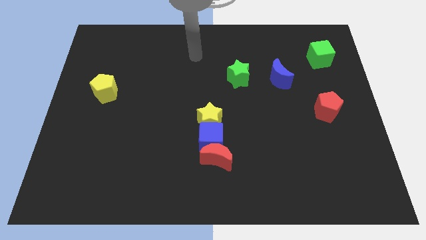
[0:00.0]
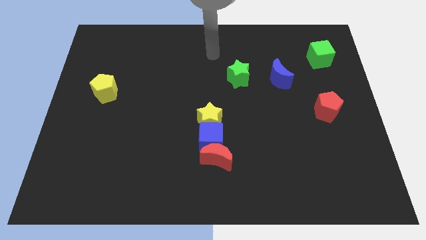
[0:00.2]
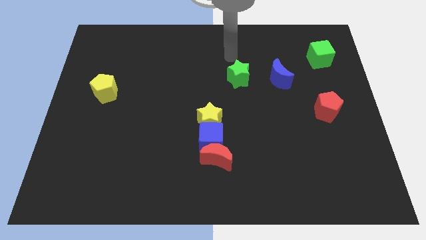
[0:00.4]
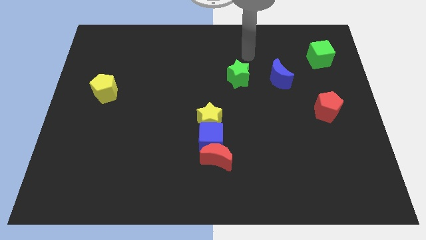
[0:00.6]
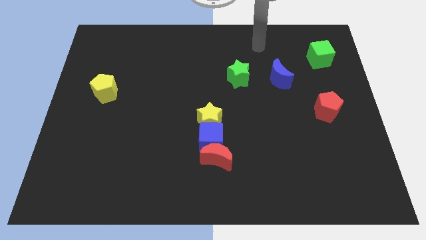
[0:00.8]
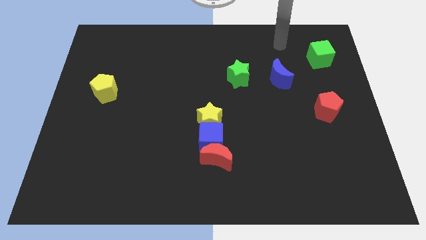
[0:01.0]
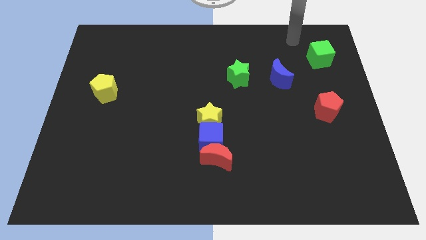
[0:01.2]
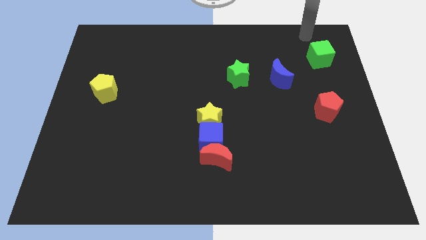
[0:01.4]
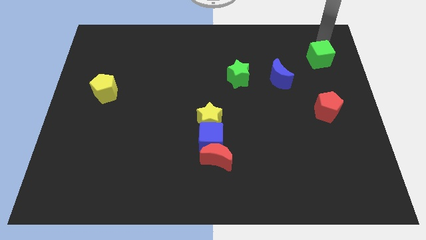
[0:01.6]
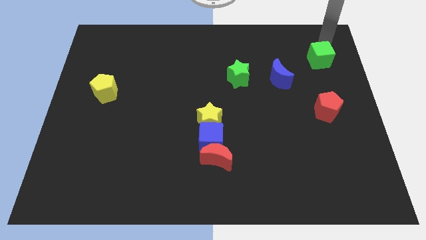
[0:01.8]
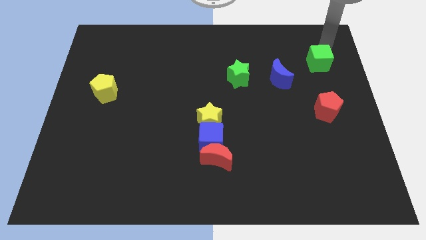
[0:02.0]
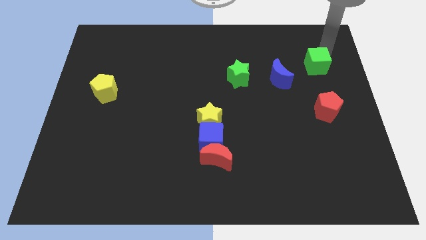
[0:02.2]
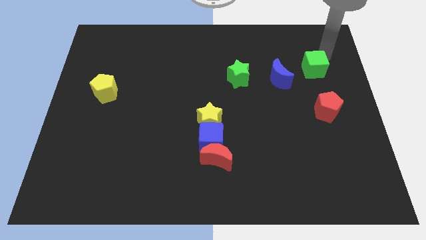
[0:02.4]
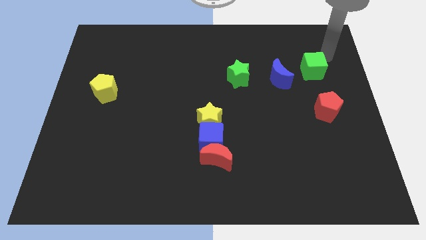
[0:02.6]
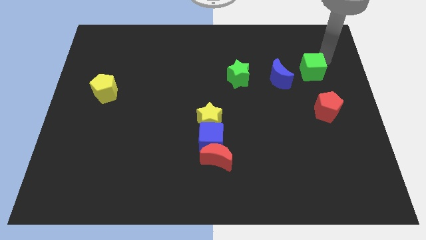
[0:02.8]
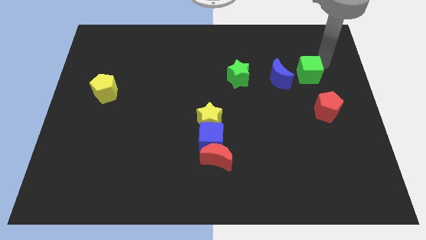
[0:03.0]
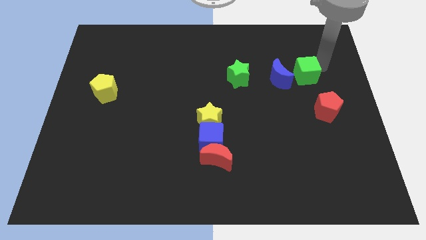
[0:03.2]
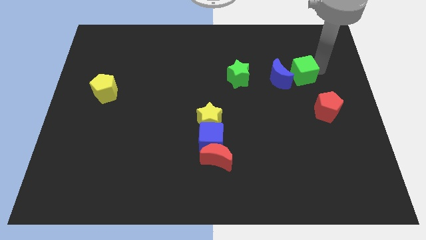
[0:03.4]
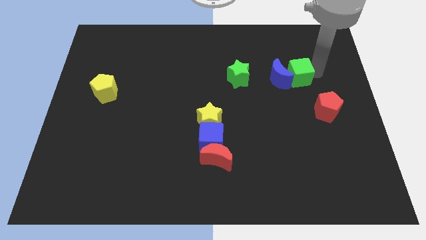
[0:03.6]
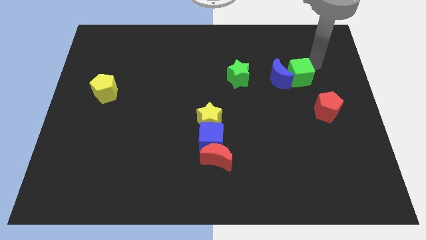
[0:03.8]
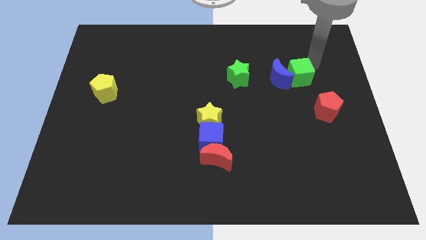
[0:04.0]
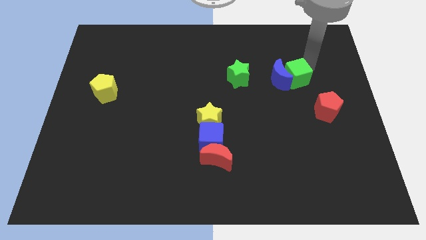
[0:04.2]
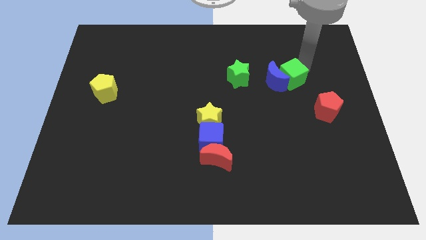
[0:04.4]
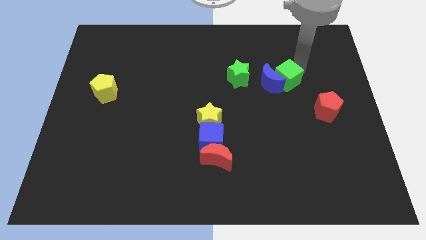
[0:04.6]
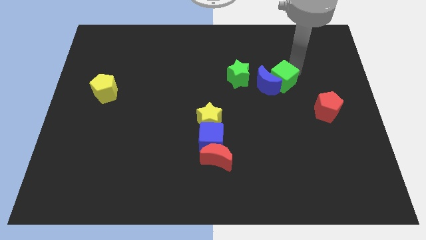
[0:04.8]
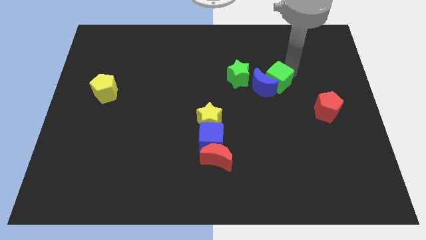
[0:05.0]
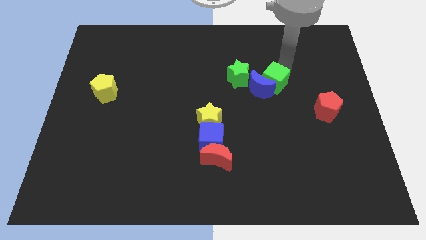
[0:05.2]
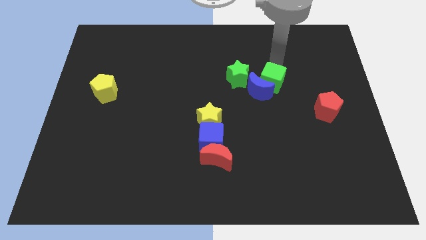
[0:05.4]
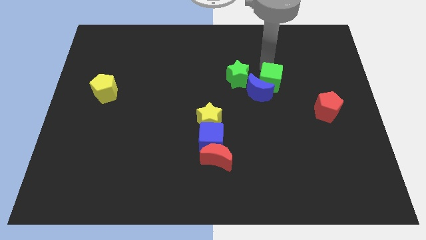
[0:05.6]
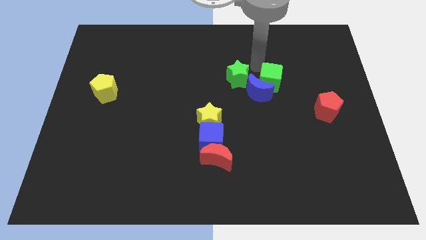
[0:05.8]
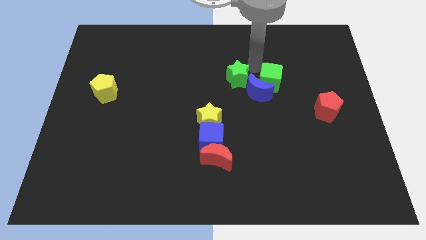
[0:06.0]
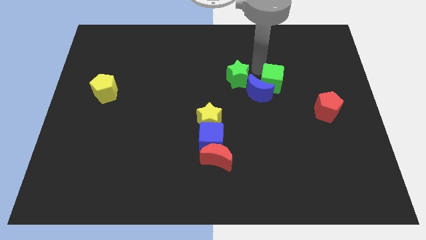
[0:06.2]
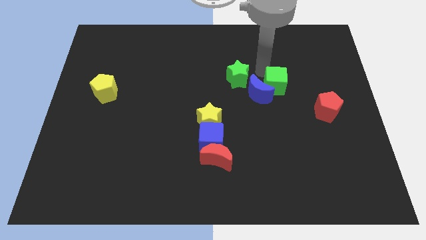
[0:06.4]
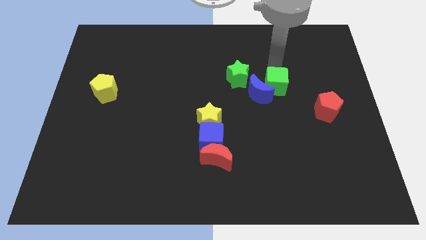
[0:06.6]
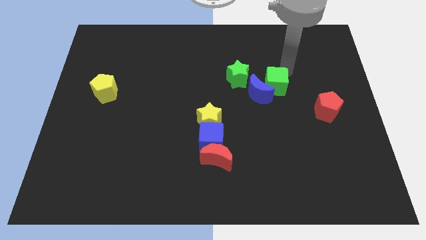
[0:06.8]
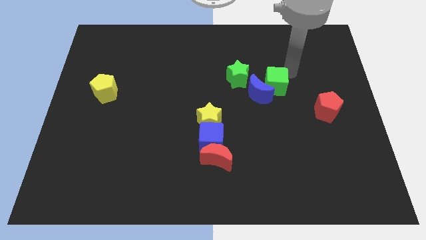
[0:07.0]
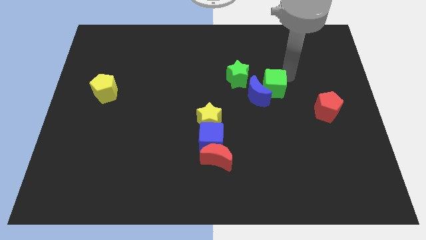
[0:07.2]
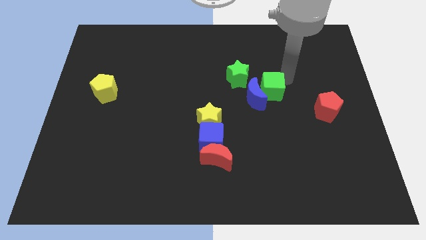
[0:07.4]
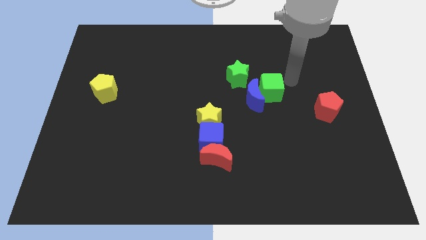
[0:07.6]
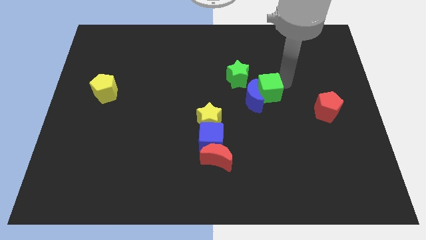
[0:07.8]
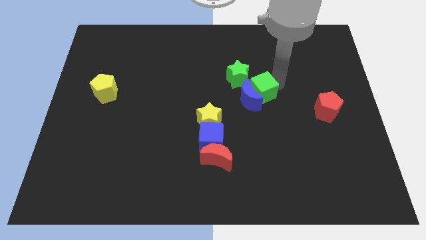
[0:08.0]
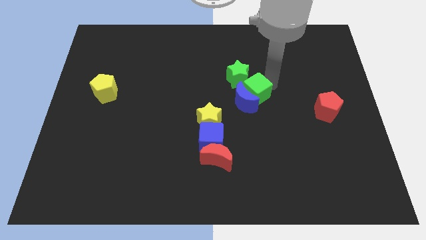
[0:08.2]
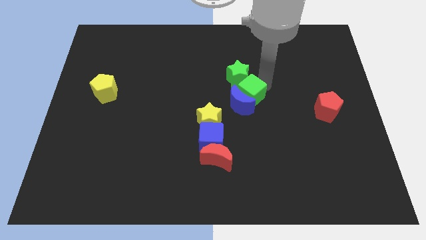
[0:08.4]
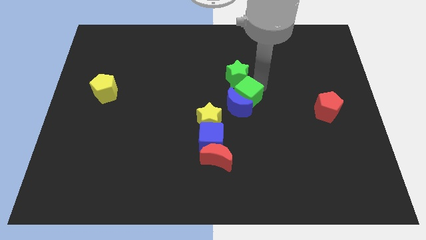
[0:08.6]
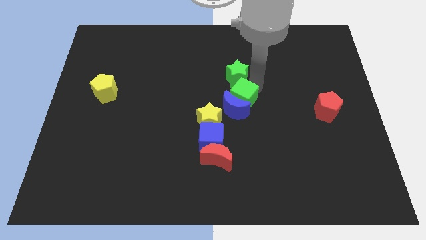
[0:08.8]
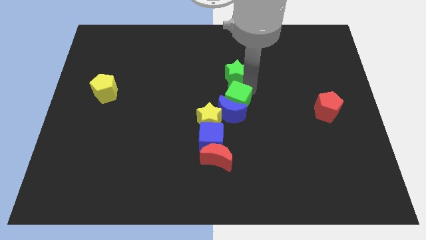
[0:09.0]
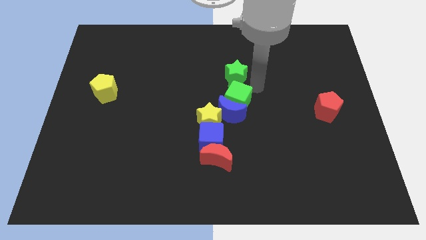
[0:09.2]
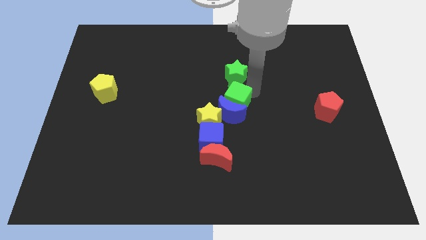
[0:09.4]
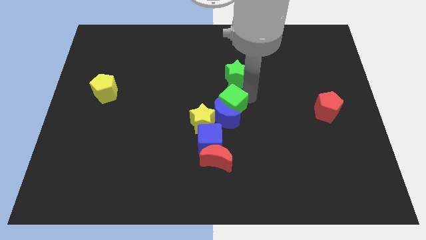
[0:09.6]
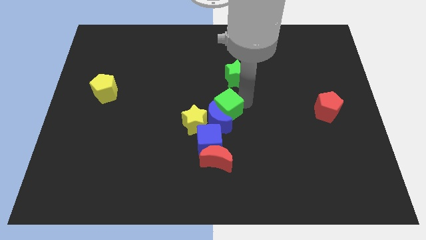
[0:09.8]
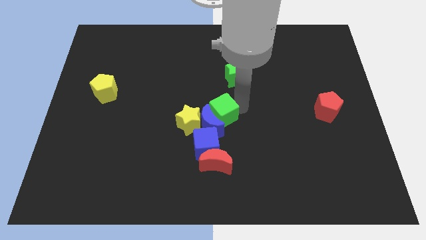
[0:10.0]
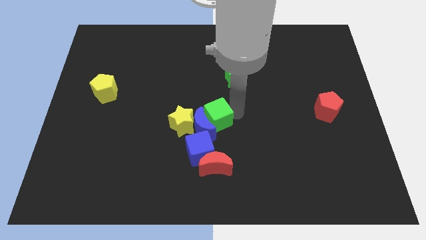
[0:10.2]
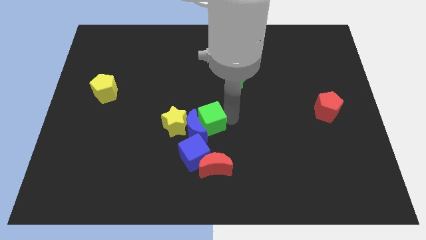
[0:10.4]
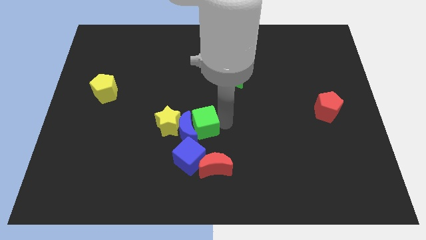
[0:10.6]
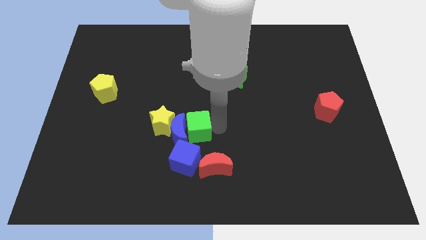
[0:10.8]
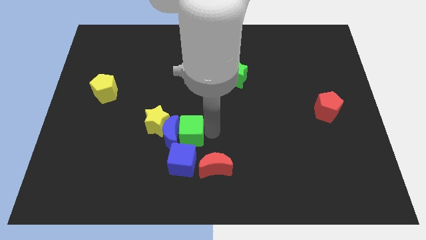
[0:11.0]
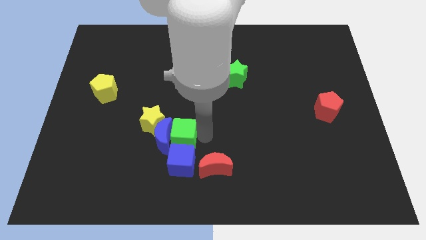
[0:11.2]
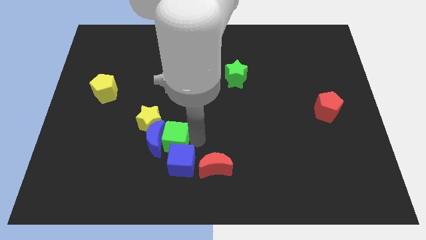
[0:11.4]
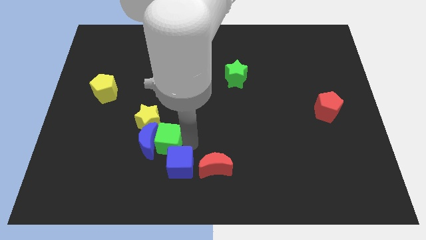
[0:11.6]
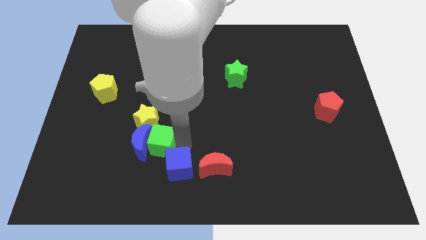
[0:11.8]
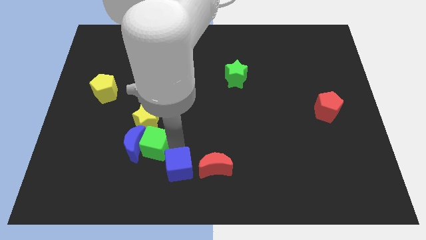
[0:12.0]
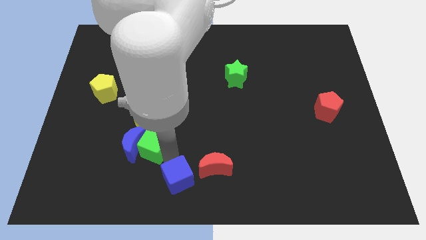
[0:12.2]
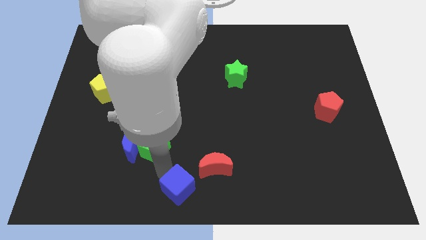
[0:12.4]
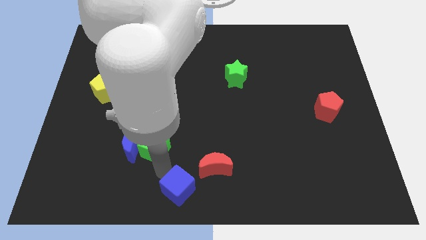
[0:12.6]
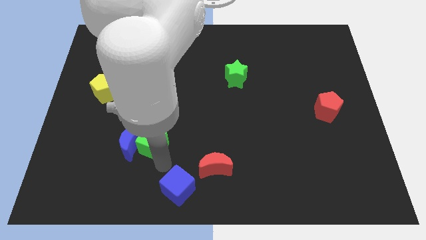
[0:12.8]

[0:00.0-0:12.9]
move the green cube next to the yellow star

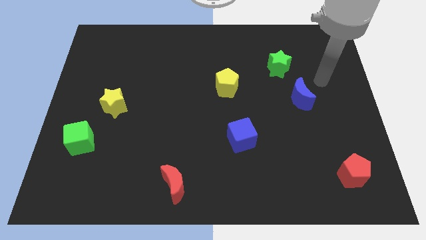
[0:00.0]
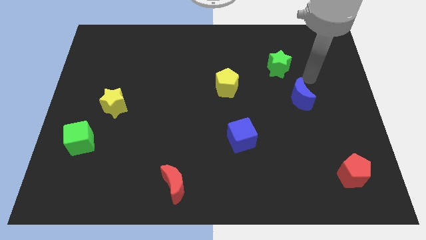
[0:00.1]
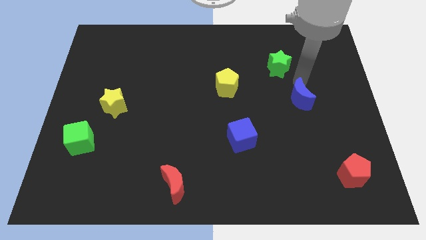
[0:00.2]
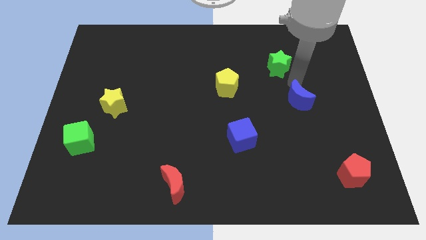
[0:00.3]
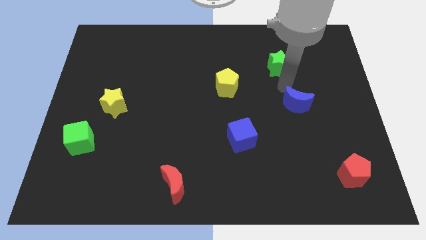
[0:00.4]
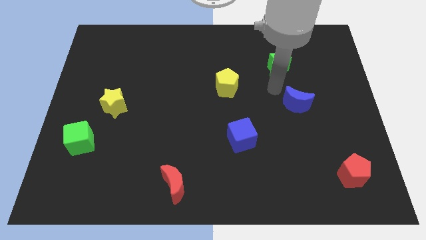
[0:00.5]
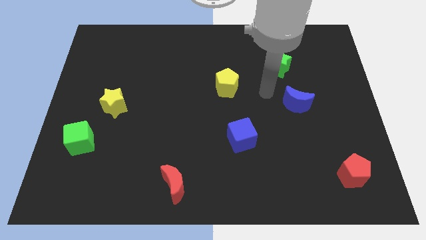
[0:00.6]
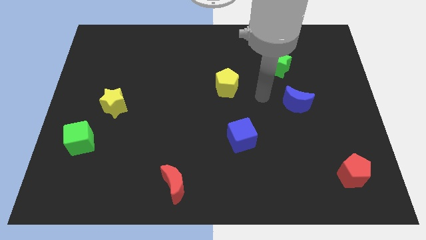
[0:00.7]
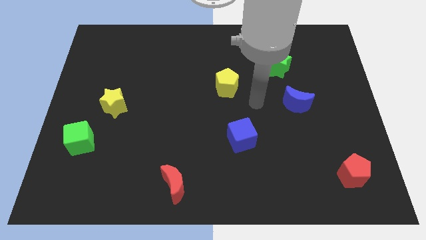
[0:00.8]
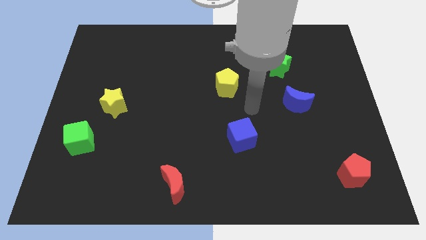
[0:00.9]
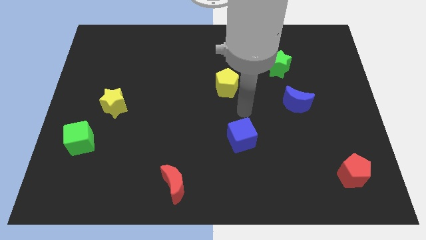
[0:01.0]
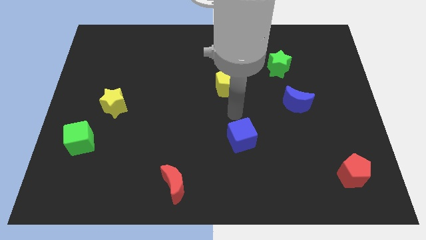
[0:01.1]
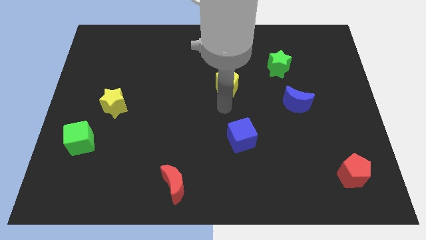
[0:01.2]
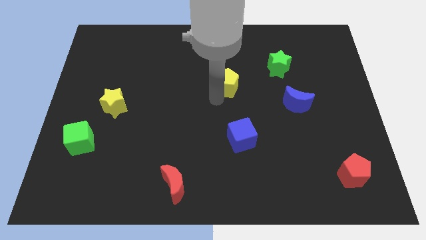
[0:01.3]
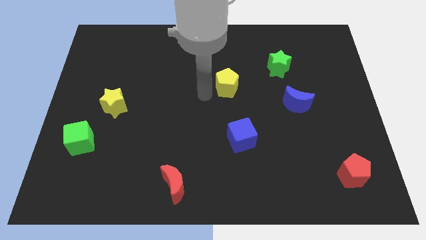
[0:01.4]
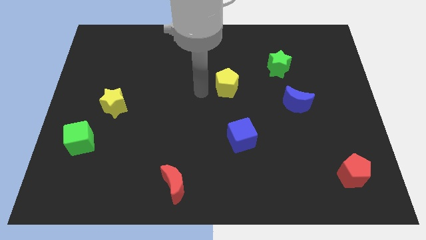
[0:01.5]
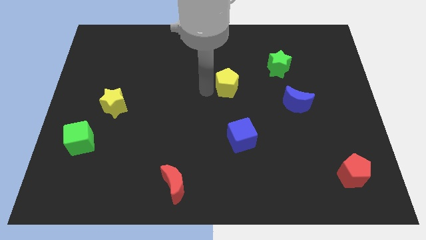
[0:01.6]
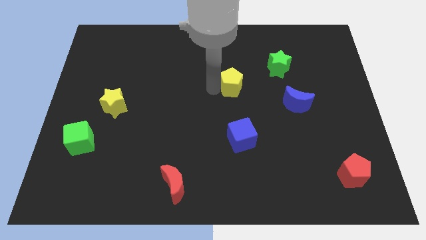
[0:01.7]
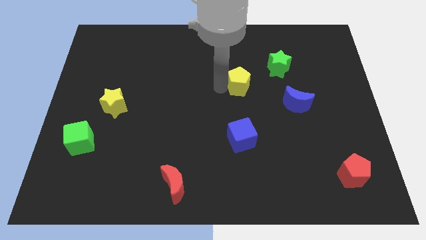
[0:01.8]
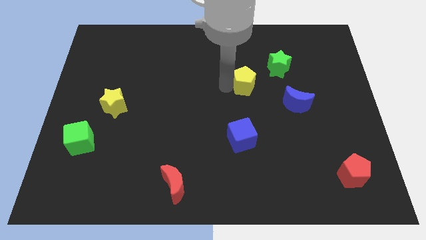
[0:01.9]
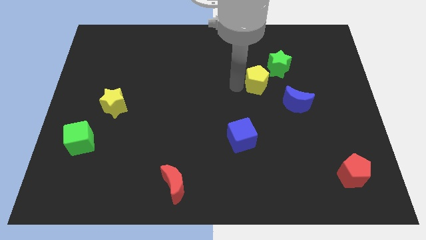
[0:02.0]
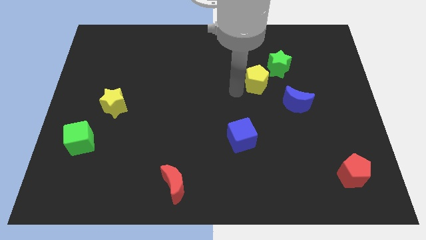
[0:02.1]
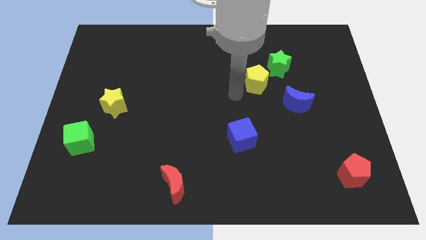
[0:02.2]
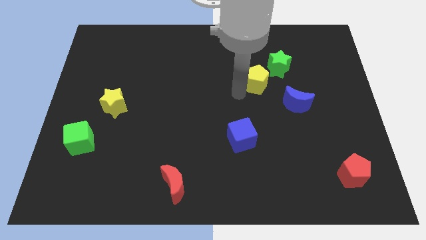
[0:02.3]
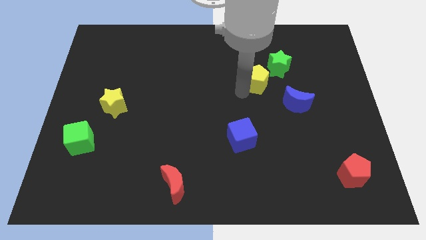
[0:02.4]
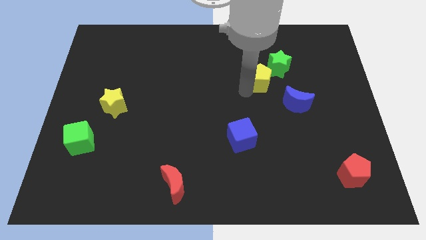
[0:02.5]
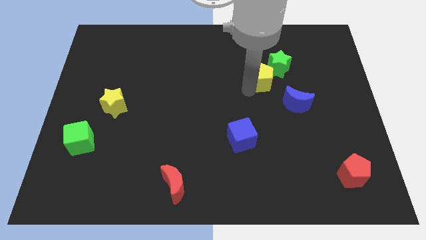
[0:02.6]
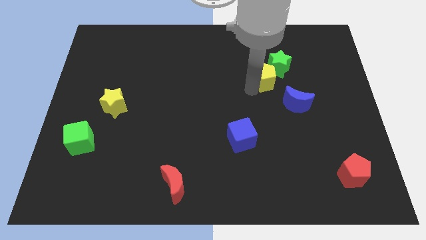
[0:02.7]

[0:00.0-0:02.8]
put the yellow pentagon towards the green star
